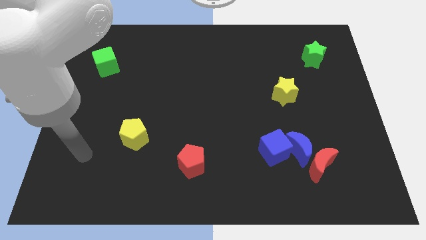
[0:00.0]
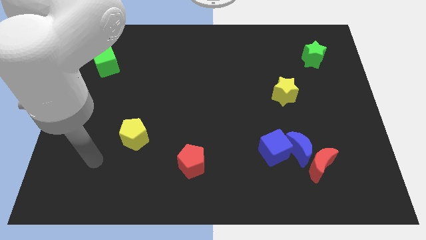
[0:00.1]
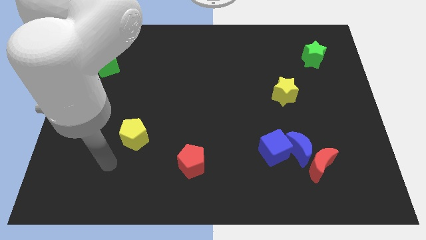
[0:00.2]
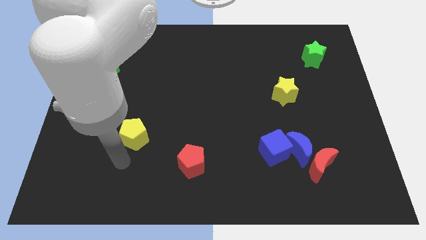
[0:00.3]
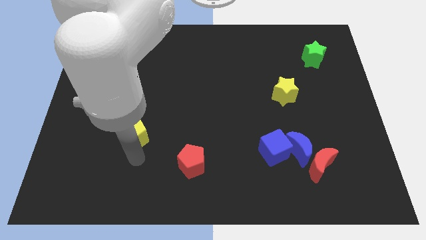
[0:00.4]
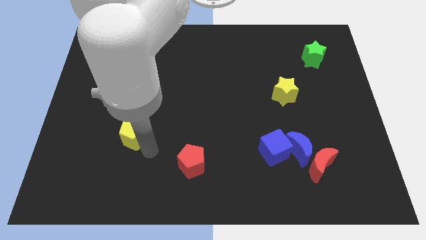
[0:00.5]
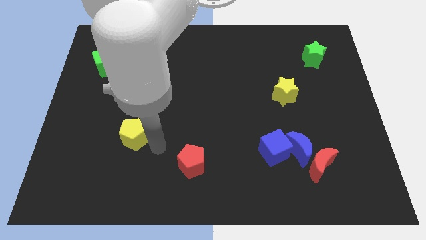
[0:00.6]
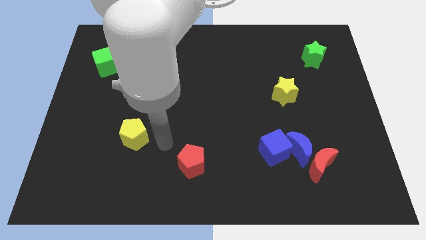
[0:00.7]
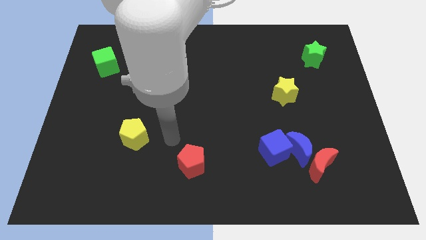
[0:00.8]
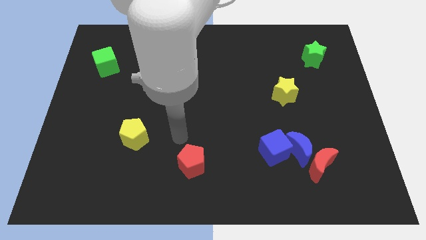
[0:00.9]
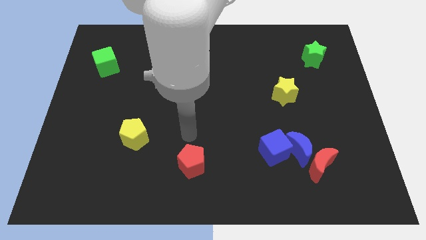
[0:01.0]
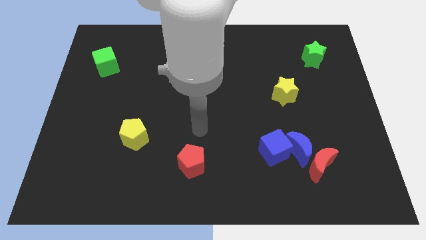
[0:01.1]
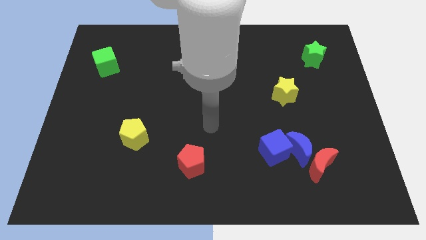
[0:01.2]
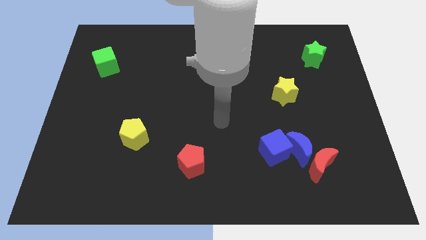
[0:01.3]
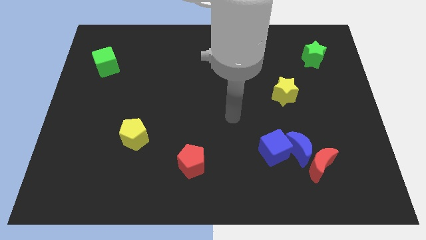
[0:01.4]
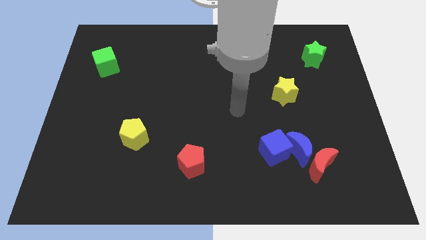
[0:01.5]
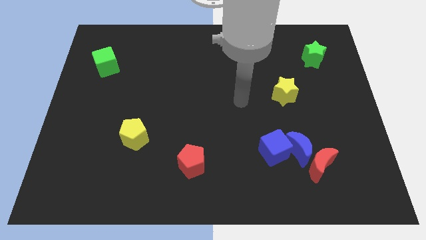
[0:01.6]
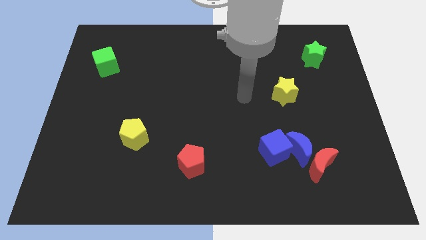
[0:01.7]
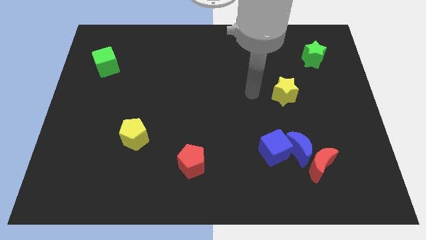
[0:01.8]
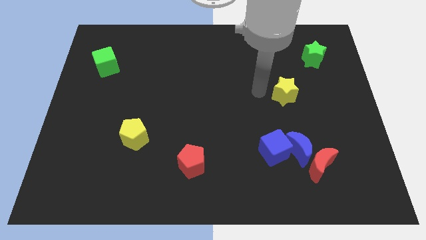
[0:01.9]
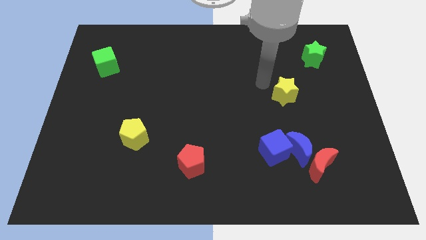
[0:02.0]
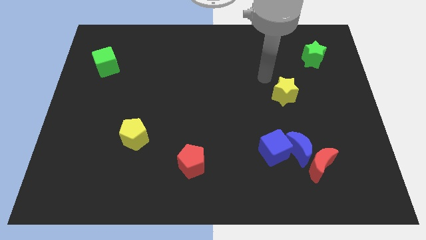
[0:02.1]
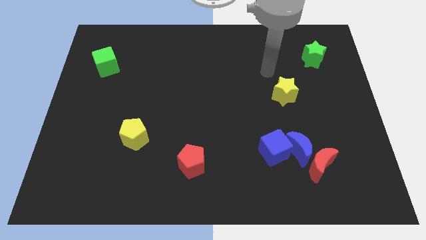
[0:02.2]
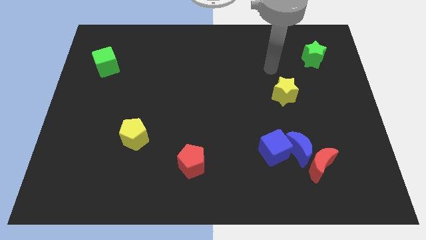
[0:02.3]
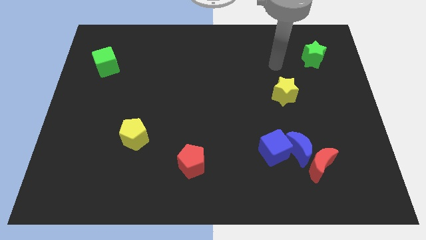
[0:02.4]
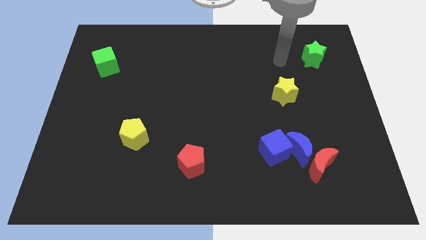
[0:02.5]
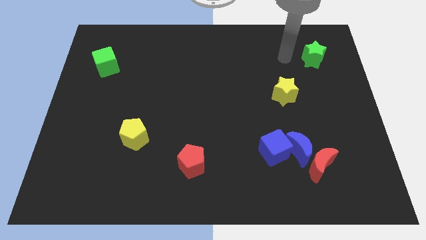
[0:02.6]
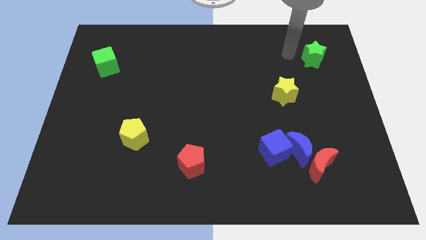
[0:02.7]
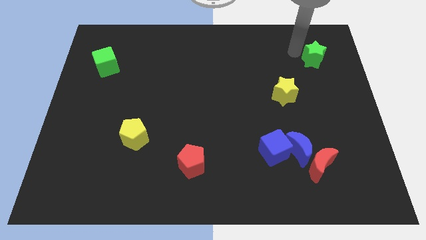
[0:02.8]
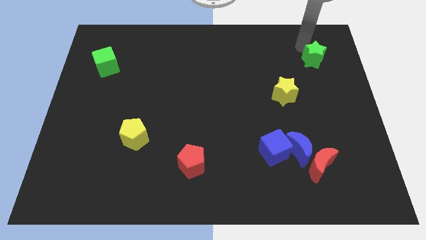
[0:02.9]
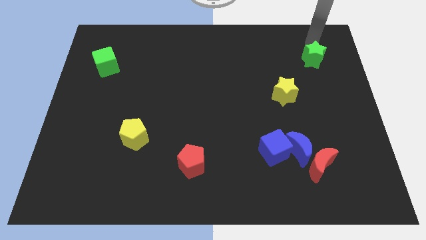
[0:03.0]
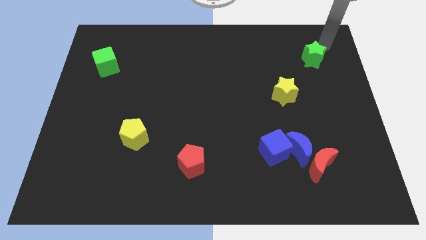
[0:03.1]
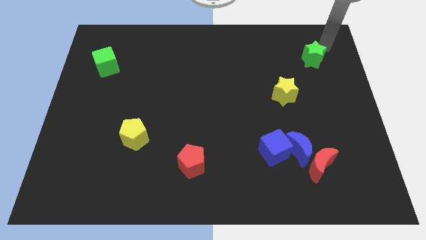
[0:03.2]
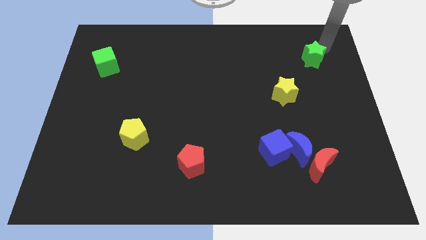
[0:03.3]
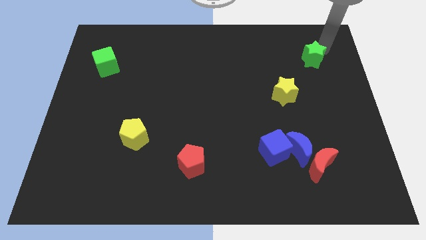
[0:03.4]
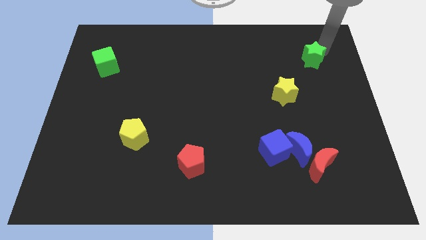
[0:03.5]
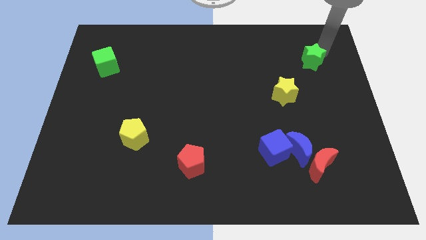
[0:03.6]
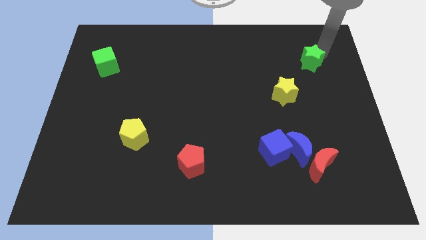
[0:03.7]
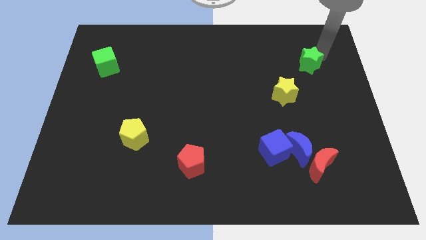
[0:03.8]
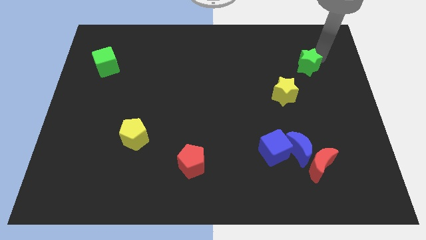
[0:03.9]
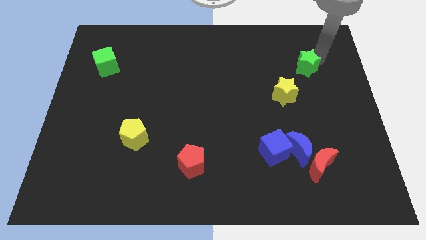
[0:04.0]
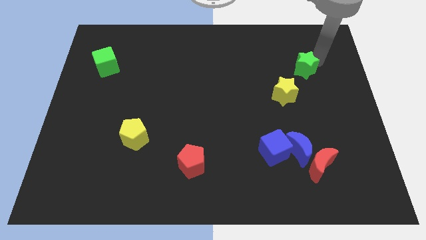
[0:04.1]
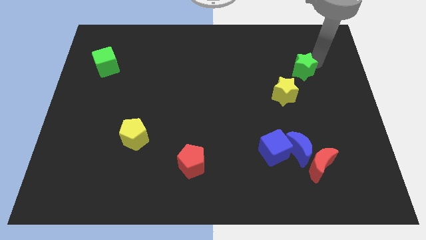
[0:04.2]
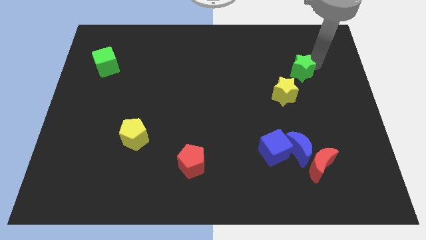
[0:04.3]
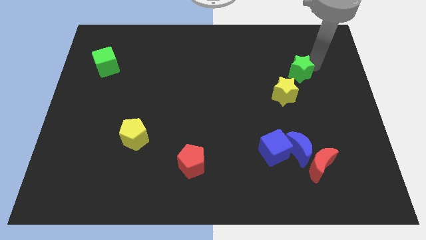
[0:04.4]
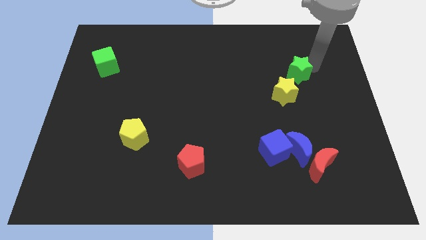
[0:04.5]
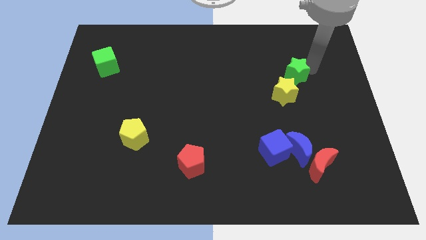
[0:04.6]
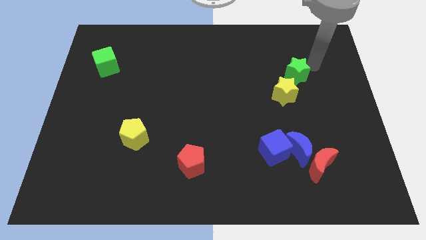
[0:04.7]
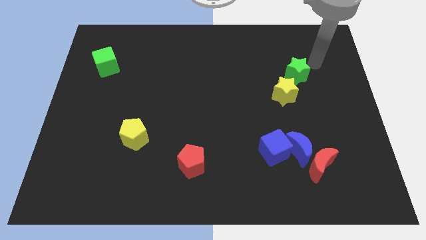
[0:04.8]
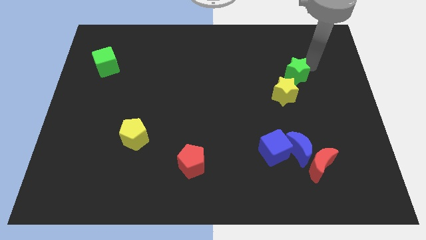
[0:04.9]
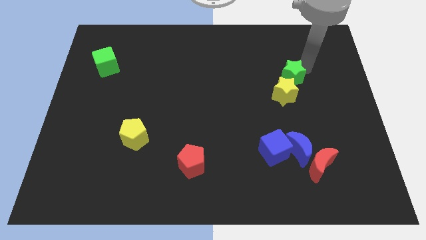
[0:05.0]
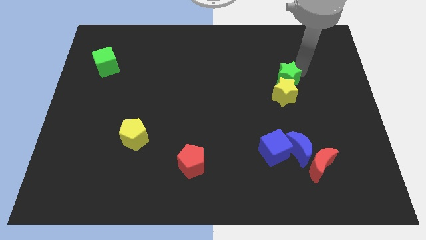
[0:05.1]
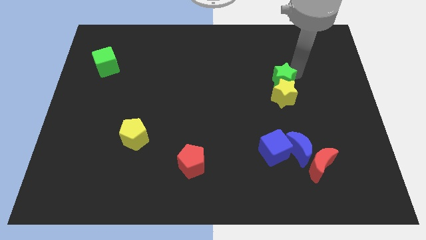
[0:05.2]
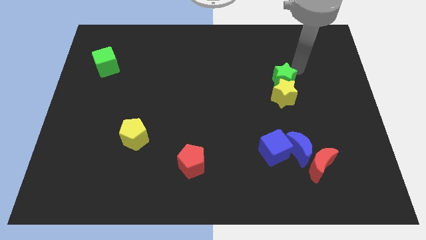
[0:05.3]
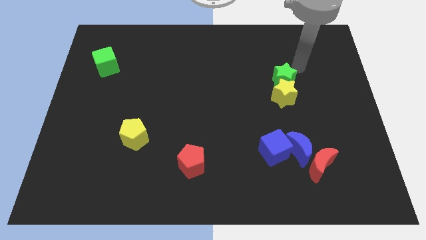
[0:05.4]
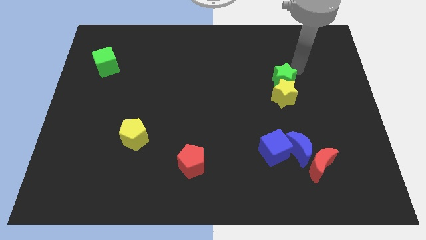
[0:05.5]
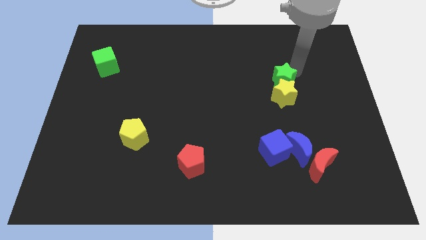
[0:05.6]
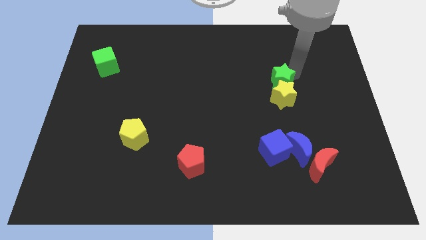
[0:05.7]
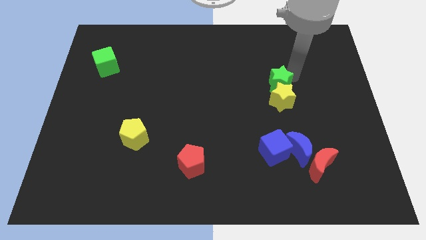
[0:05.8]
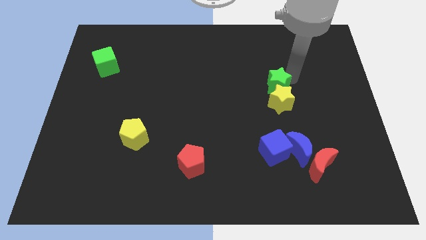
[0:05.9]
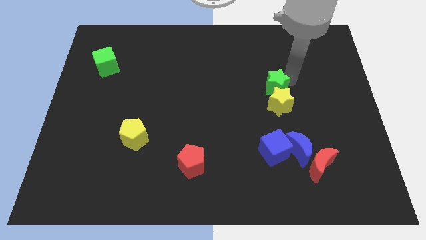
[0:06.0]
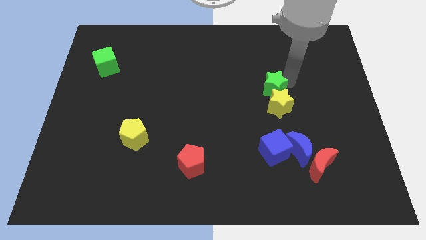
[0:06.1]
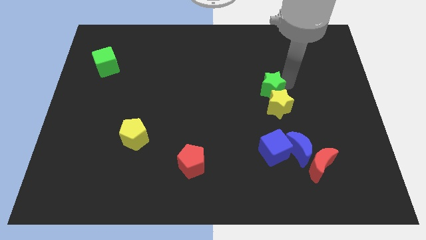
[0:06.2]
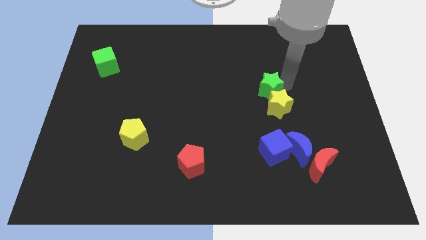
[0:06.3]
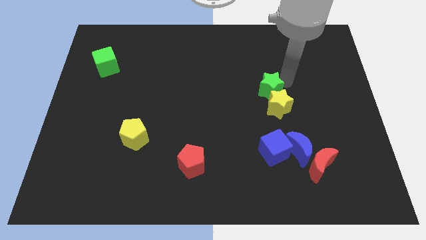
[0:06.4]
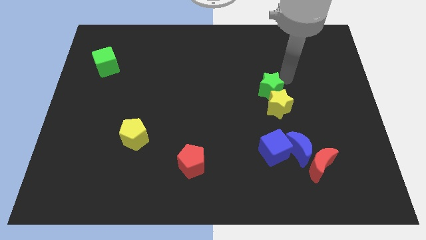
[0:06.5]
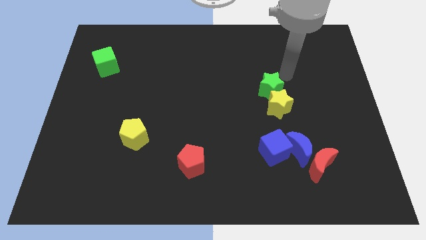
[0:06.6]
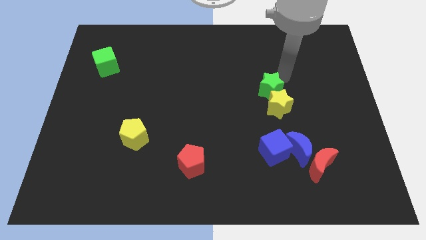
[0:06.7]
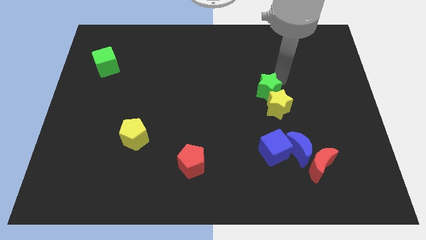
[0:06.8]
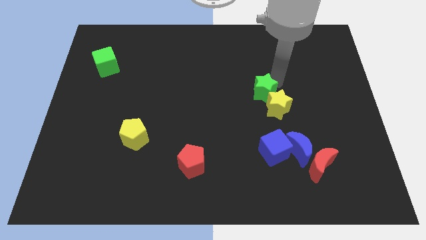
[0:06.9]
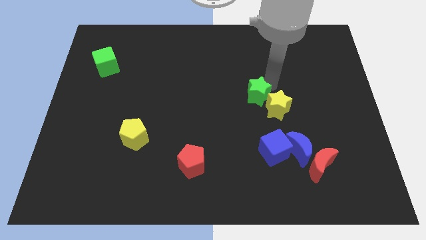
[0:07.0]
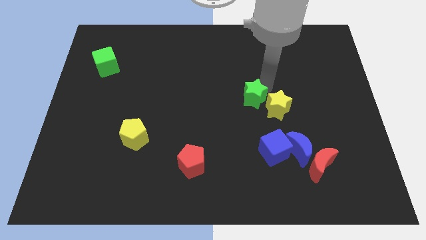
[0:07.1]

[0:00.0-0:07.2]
slide the green star down and to the left diagonally

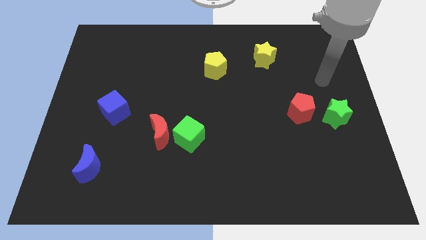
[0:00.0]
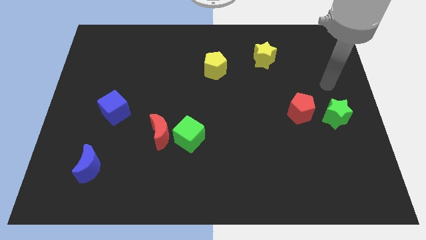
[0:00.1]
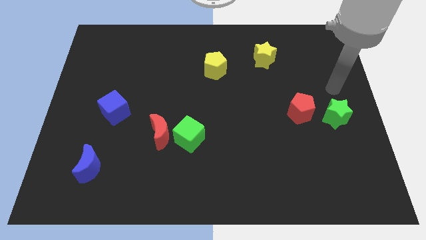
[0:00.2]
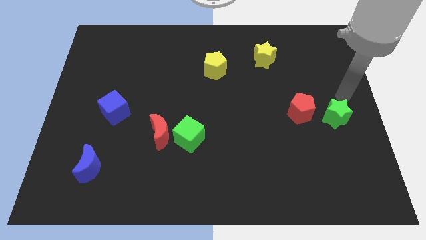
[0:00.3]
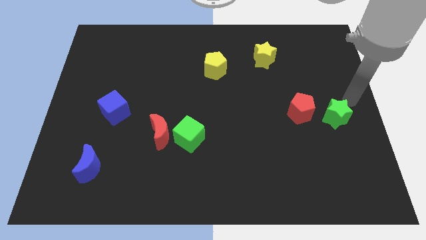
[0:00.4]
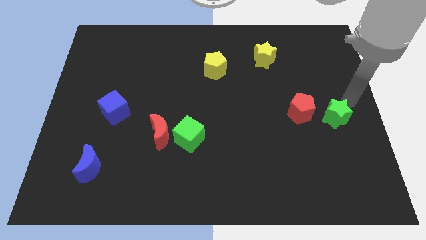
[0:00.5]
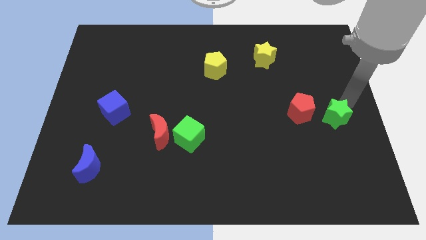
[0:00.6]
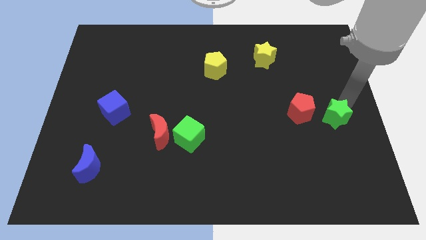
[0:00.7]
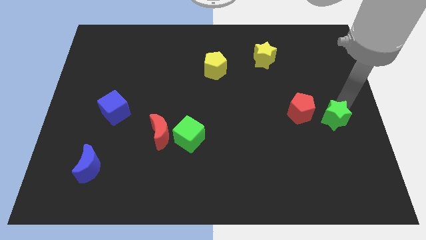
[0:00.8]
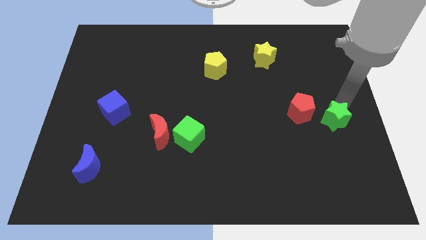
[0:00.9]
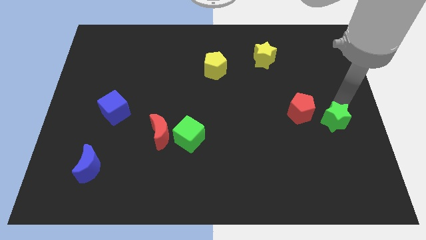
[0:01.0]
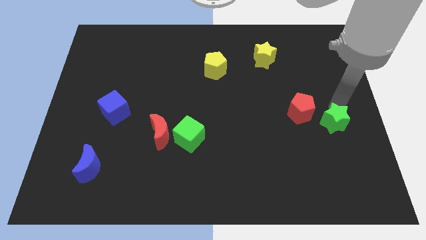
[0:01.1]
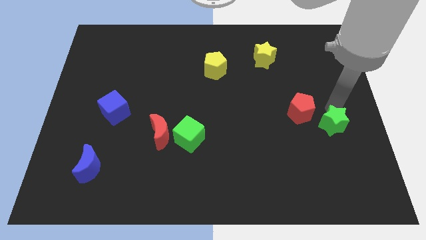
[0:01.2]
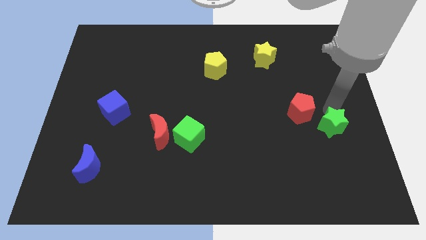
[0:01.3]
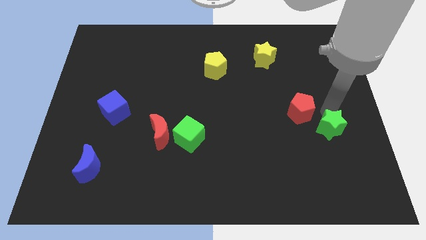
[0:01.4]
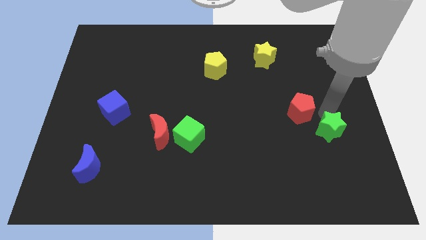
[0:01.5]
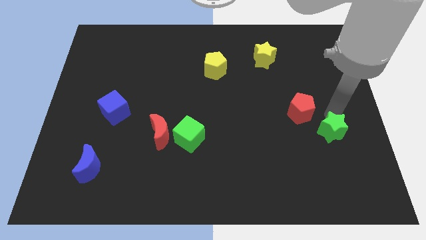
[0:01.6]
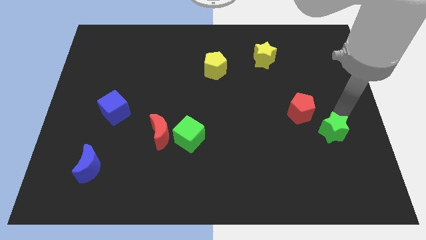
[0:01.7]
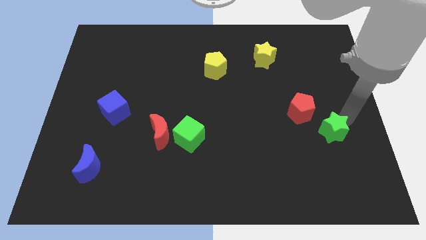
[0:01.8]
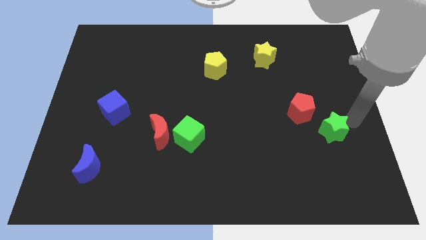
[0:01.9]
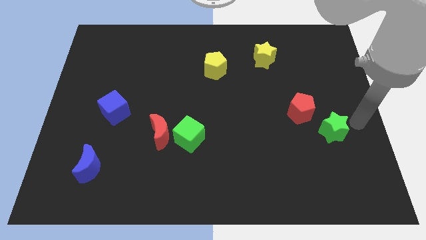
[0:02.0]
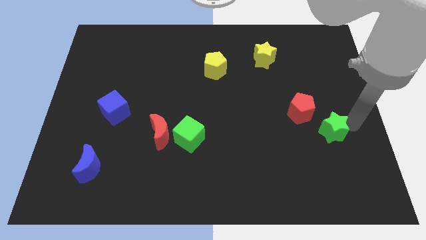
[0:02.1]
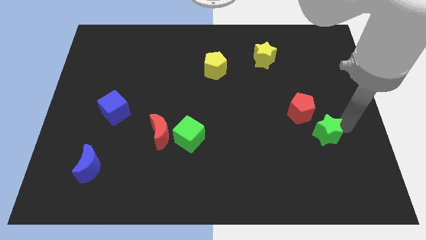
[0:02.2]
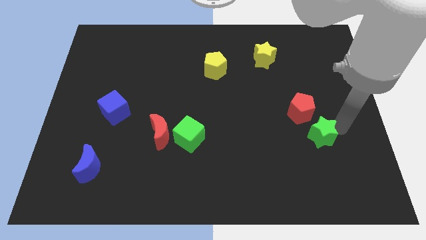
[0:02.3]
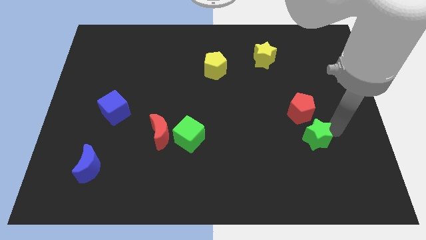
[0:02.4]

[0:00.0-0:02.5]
push the green star downwards and to the left slightly
